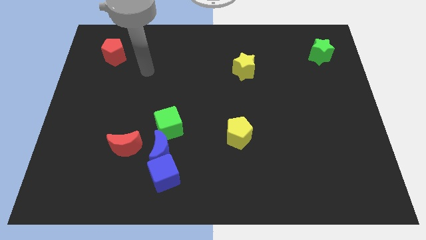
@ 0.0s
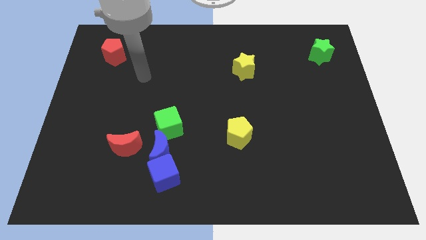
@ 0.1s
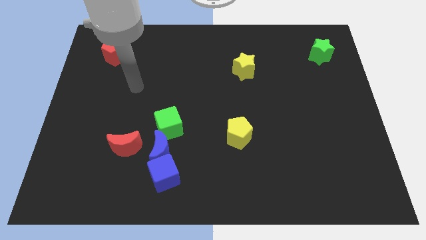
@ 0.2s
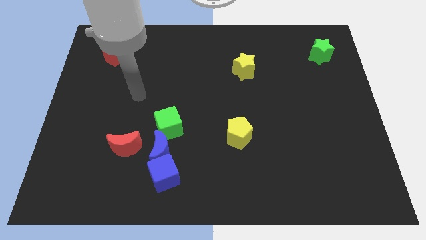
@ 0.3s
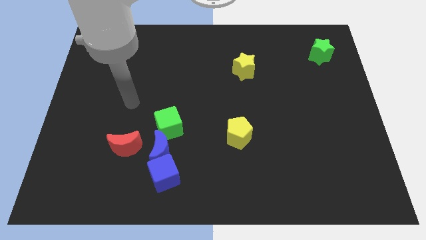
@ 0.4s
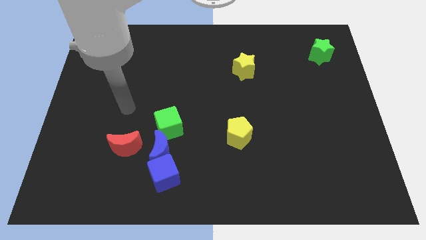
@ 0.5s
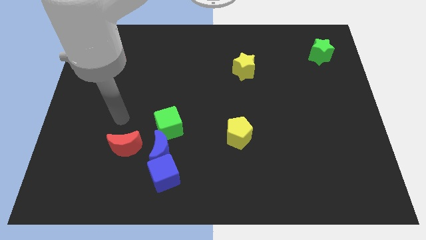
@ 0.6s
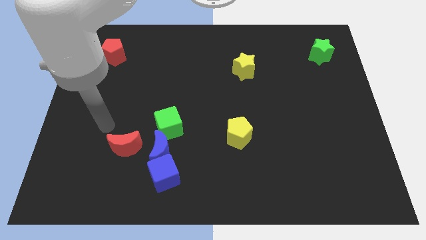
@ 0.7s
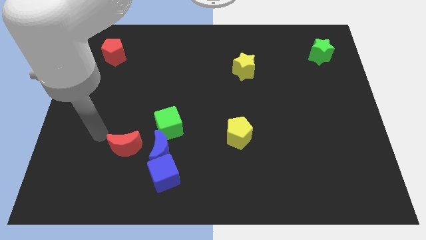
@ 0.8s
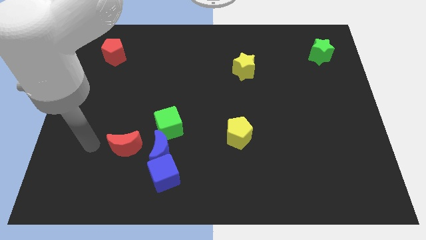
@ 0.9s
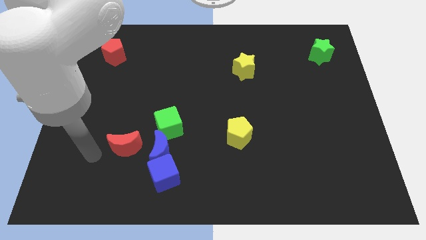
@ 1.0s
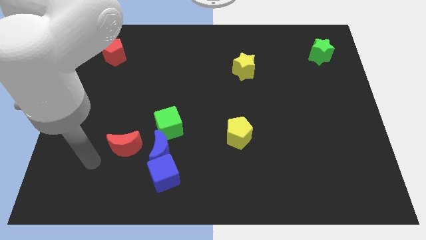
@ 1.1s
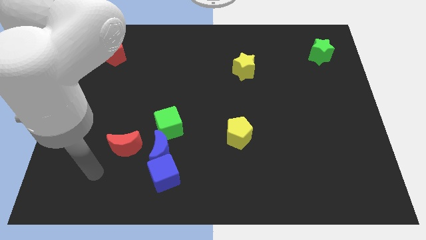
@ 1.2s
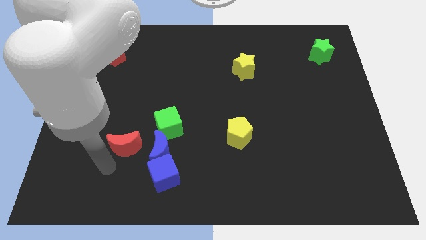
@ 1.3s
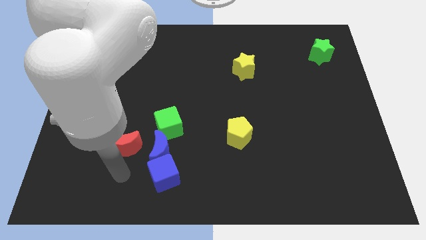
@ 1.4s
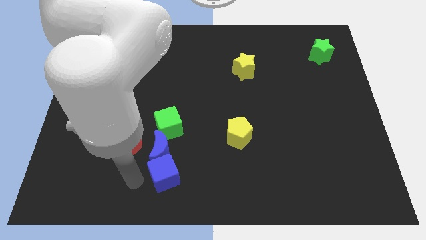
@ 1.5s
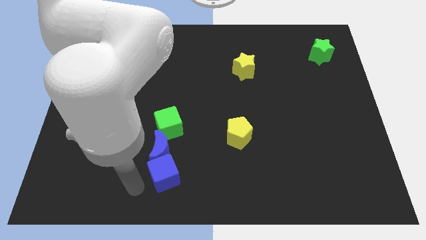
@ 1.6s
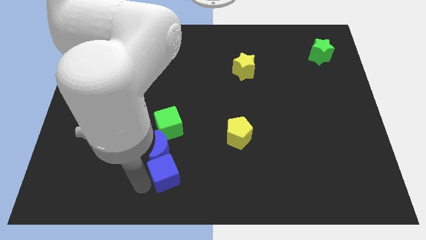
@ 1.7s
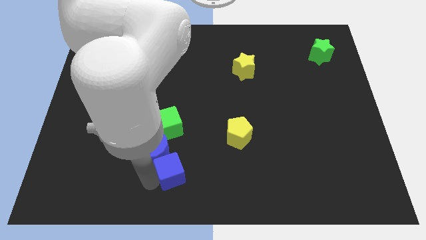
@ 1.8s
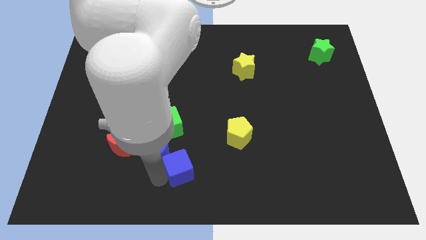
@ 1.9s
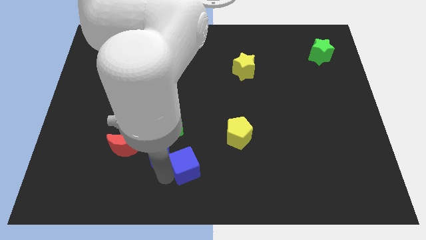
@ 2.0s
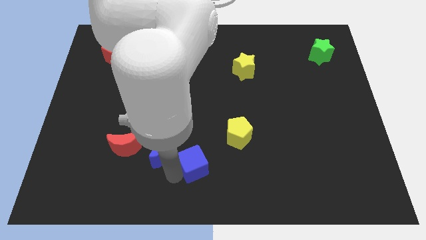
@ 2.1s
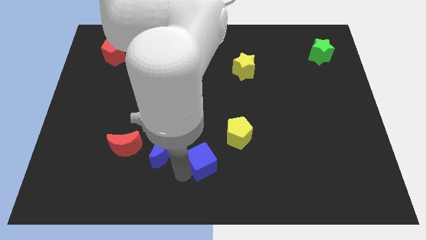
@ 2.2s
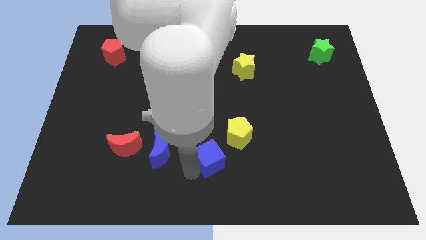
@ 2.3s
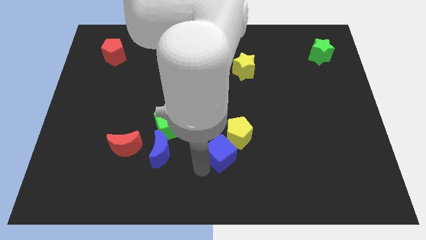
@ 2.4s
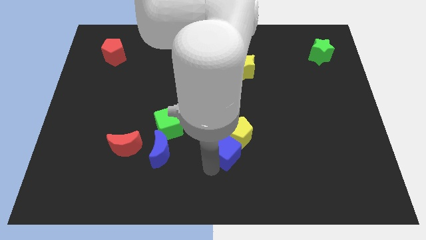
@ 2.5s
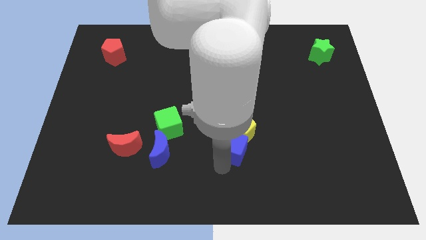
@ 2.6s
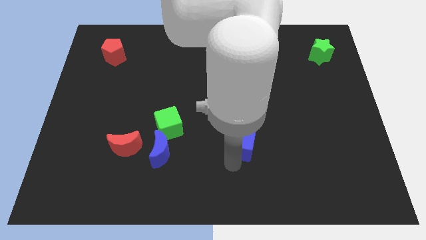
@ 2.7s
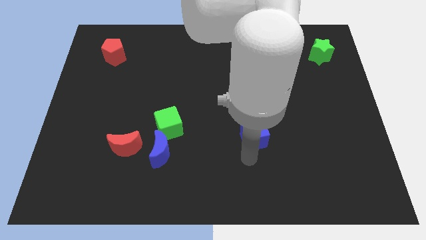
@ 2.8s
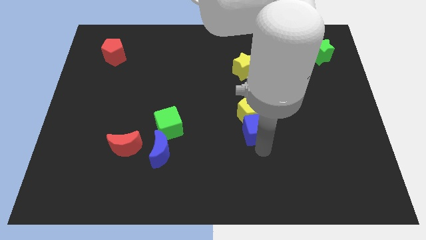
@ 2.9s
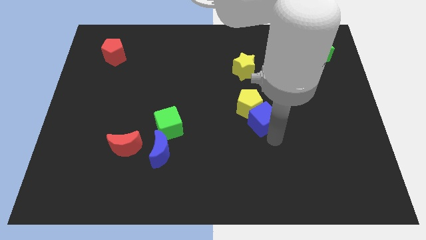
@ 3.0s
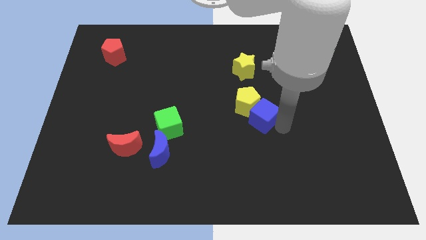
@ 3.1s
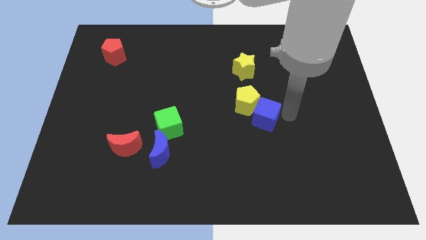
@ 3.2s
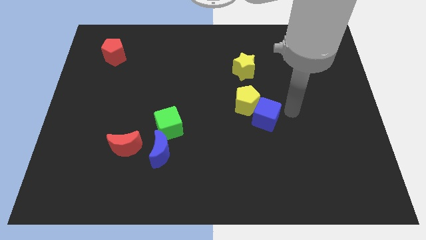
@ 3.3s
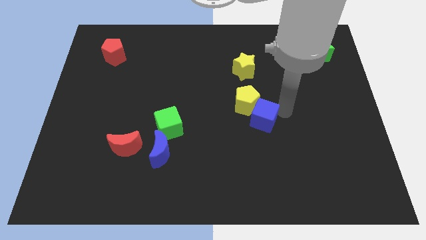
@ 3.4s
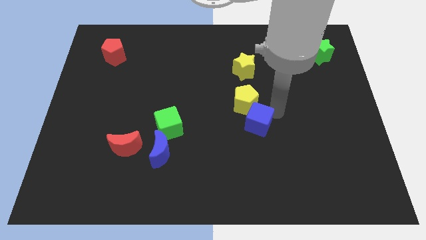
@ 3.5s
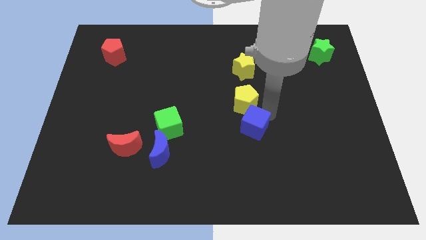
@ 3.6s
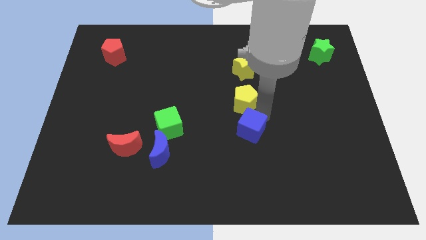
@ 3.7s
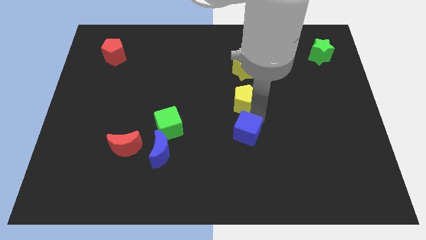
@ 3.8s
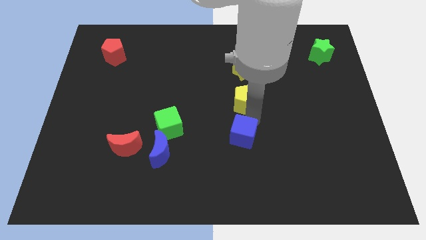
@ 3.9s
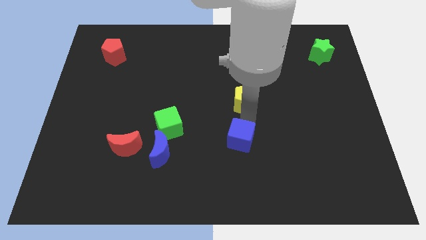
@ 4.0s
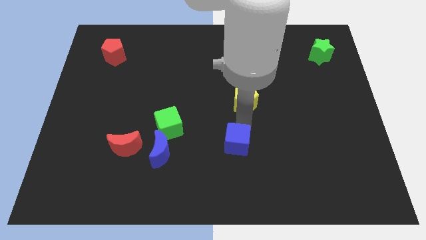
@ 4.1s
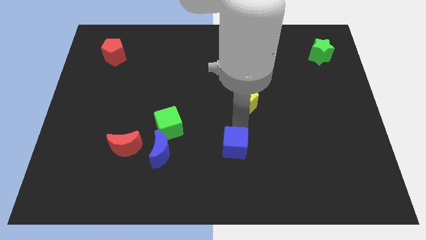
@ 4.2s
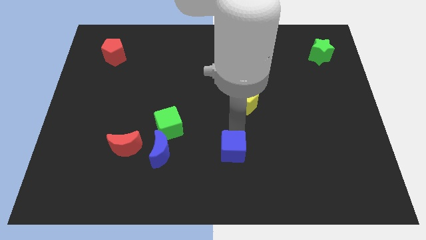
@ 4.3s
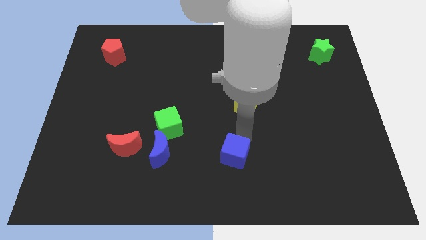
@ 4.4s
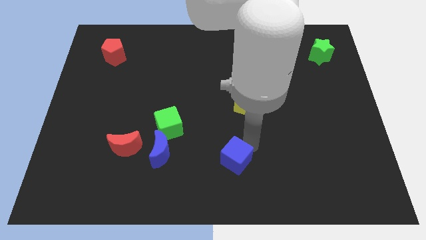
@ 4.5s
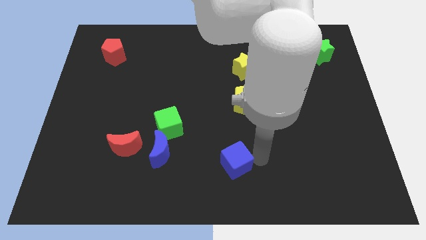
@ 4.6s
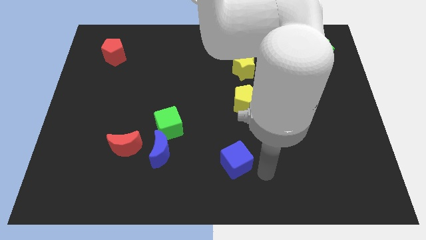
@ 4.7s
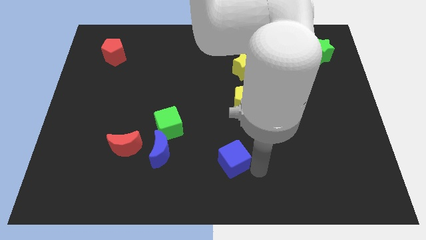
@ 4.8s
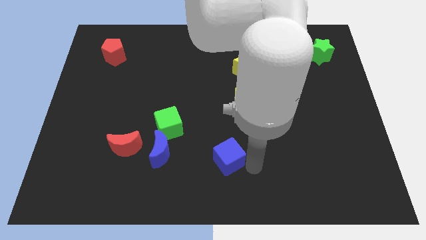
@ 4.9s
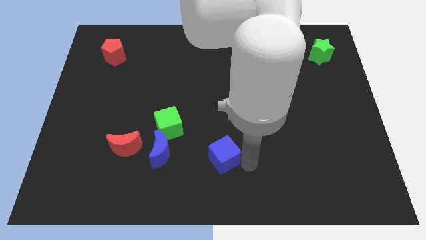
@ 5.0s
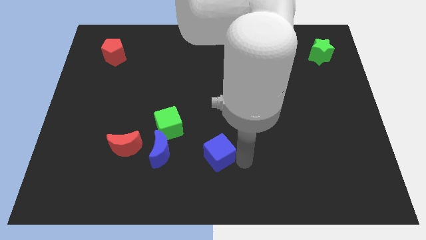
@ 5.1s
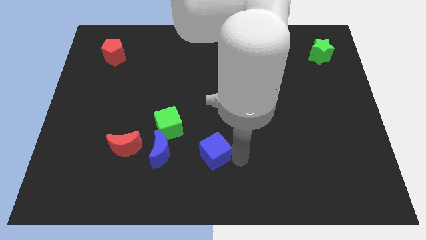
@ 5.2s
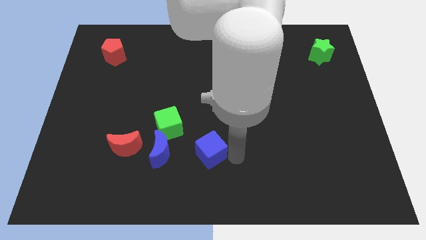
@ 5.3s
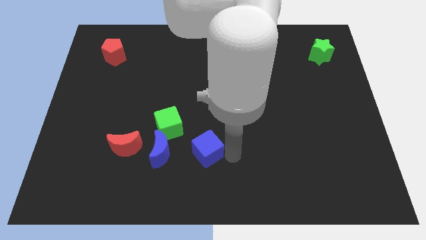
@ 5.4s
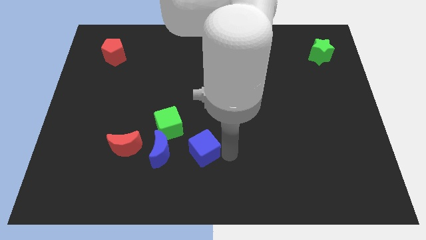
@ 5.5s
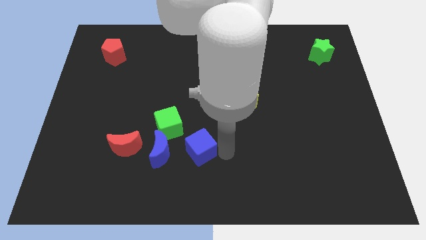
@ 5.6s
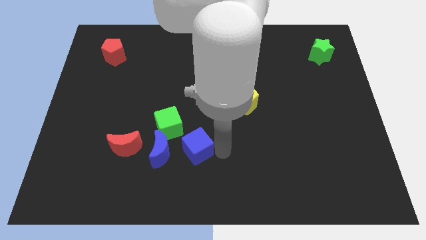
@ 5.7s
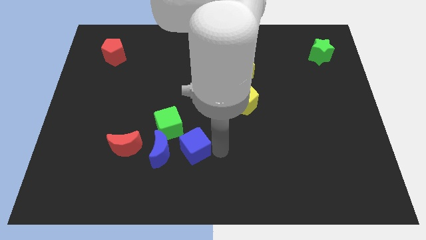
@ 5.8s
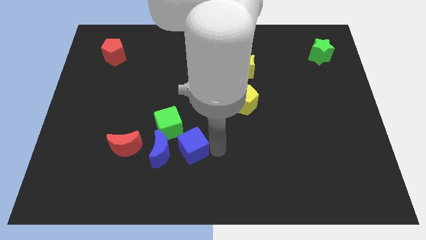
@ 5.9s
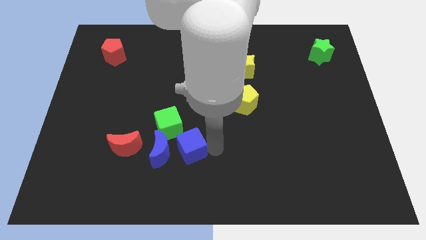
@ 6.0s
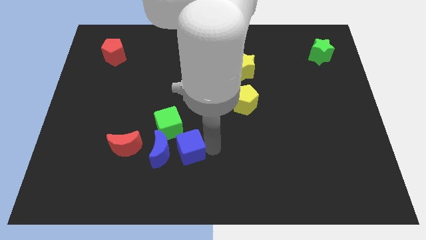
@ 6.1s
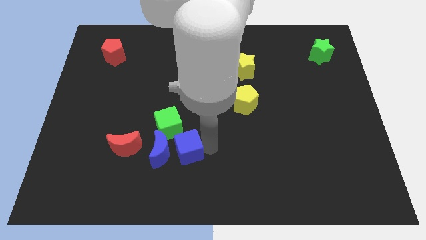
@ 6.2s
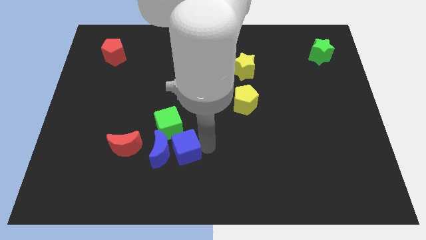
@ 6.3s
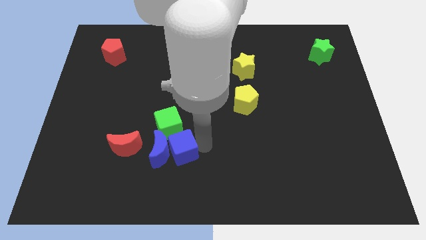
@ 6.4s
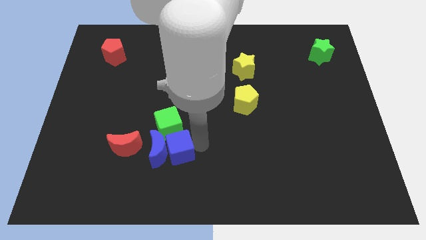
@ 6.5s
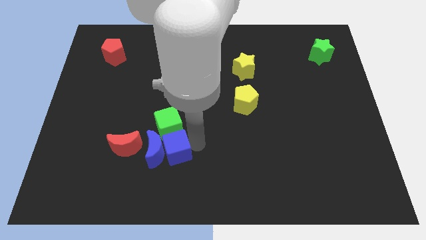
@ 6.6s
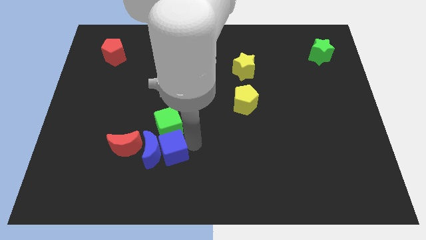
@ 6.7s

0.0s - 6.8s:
move the blue cube close to the green cube
